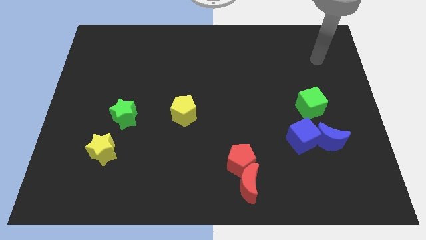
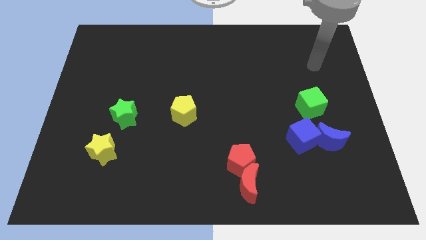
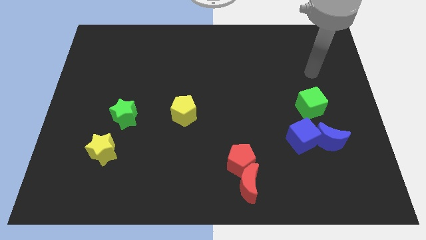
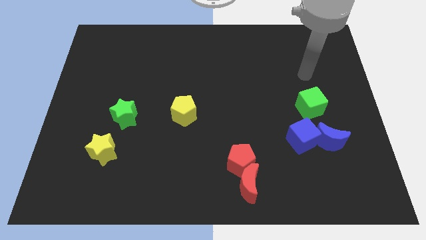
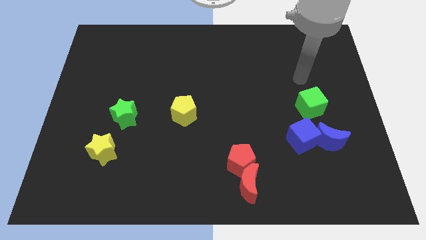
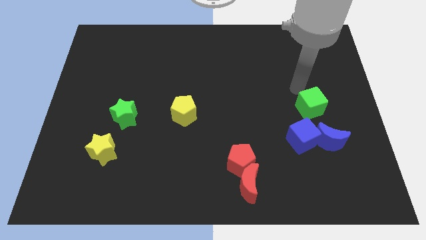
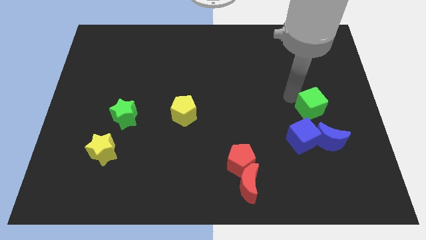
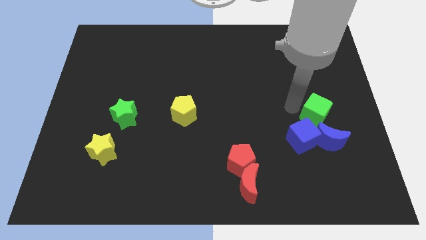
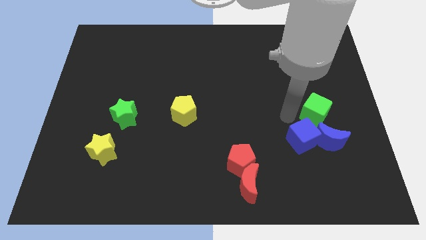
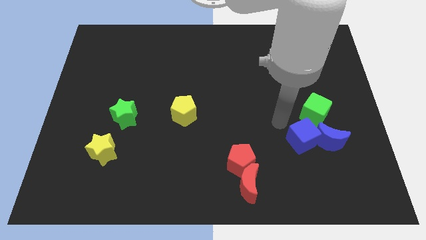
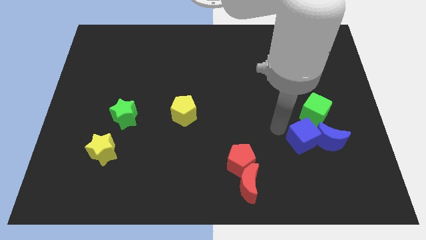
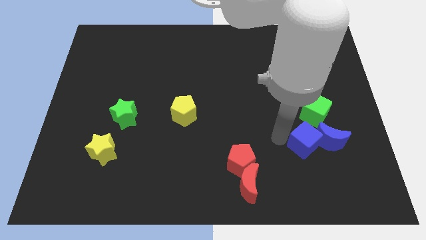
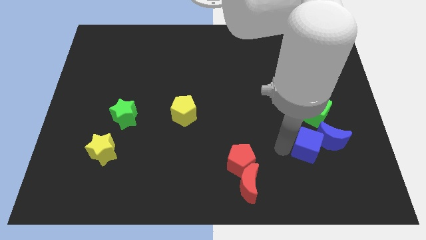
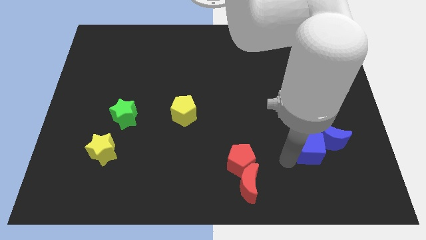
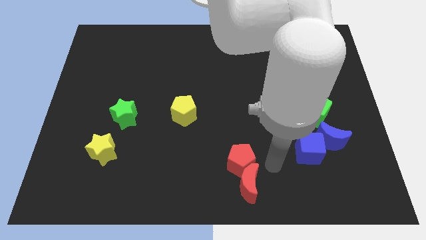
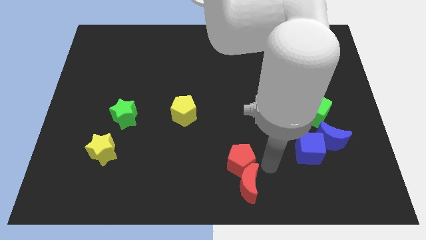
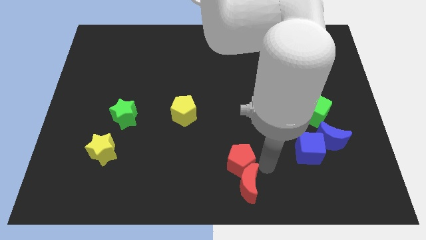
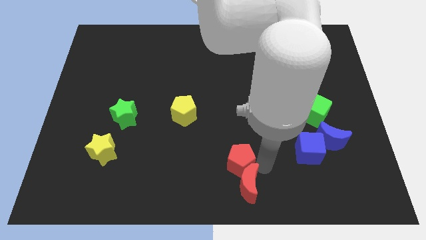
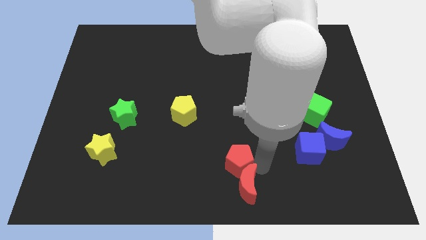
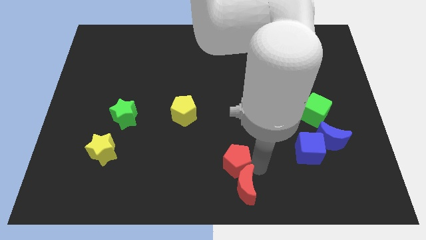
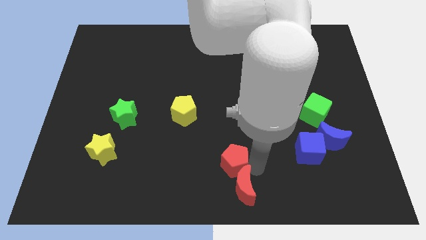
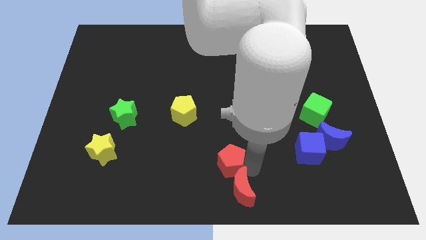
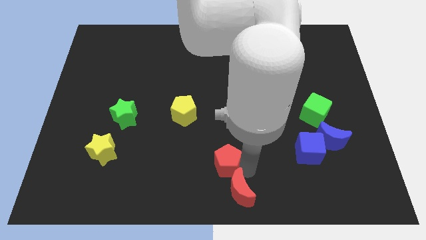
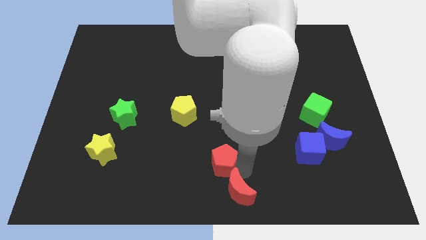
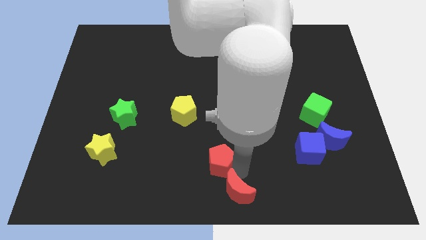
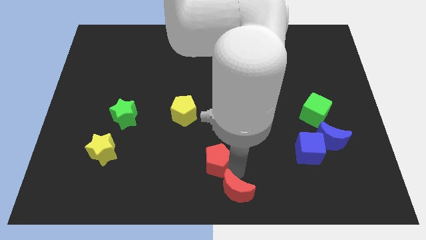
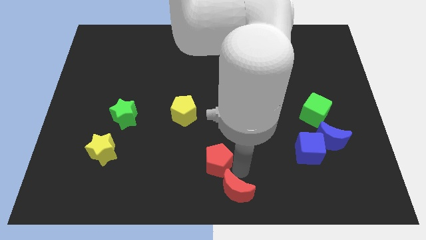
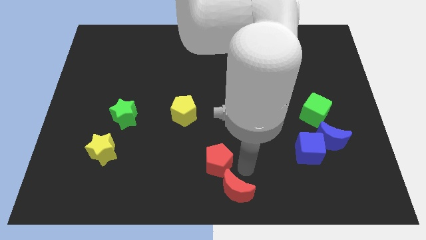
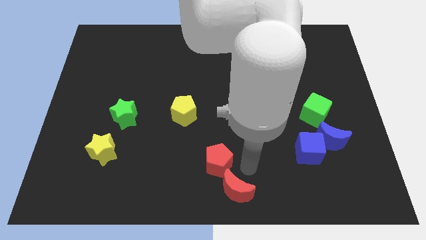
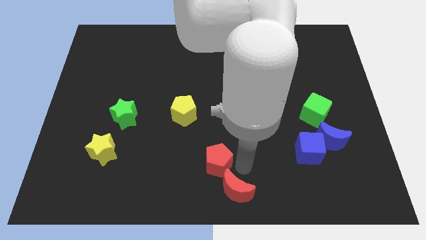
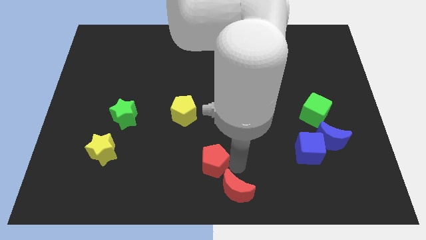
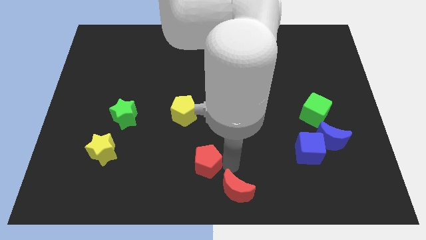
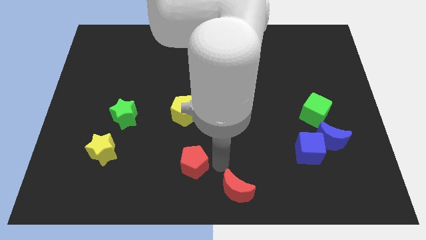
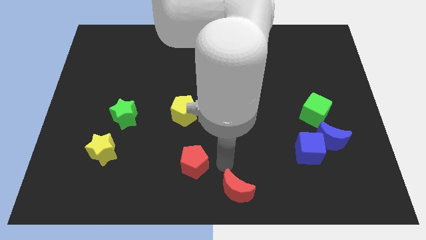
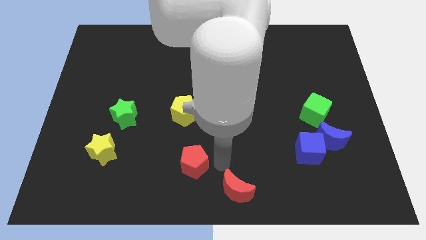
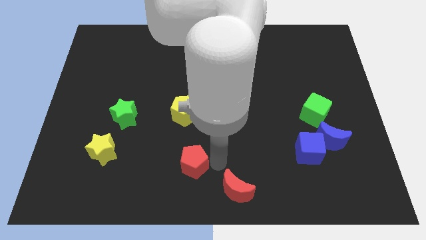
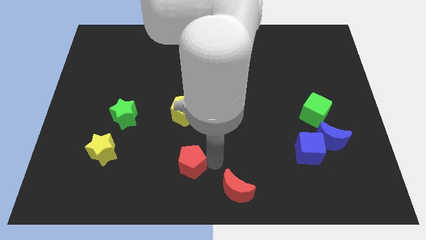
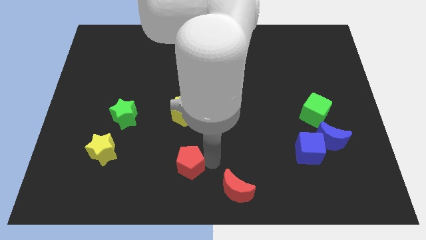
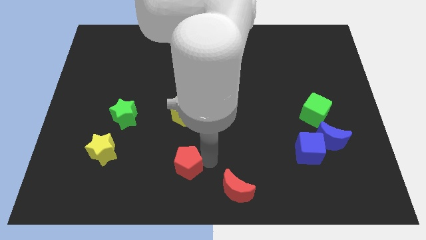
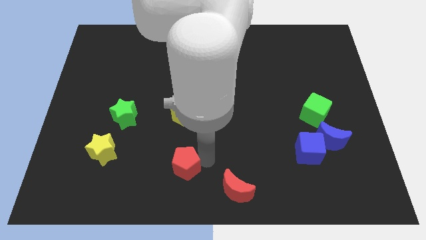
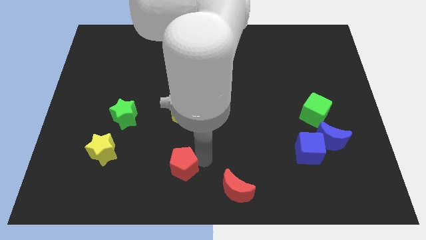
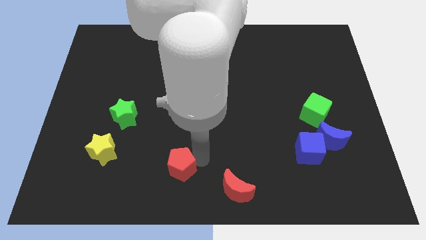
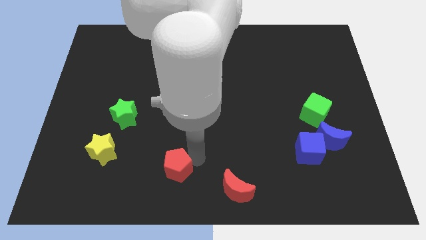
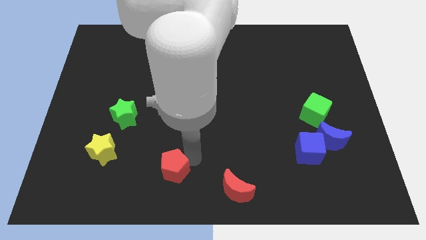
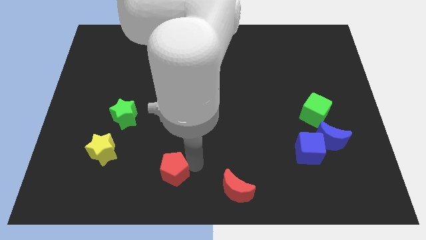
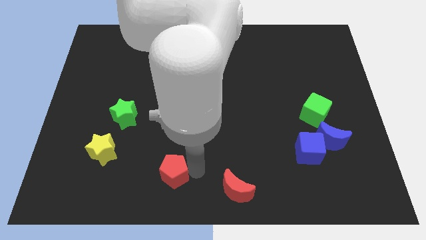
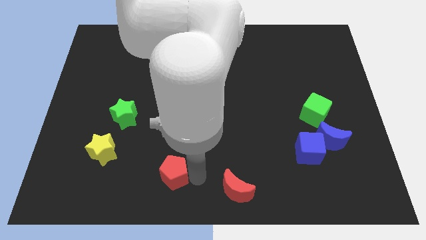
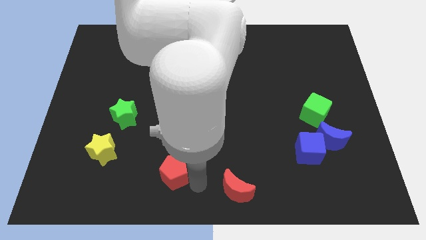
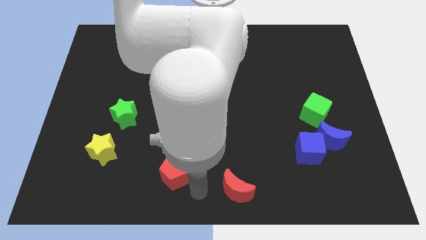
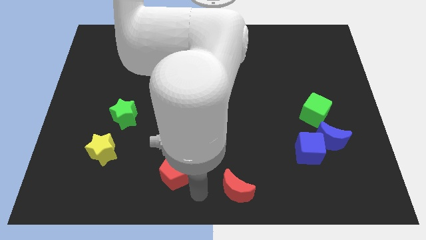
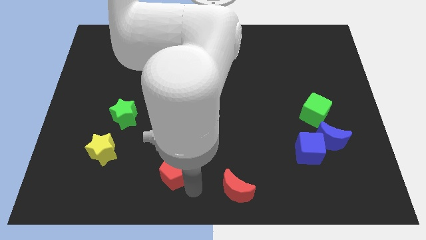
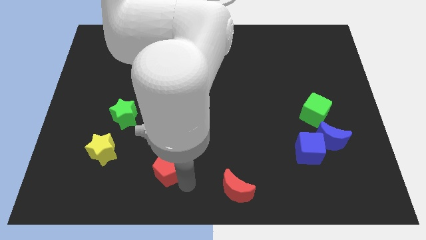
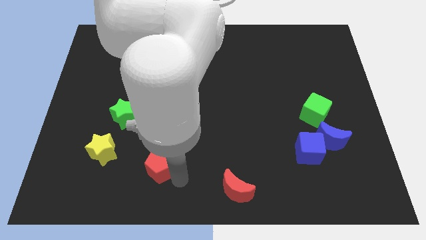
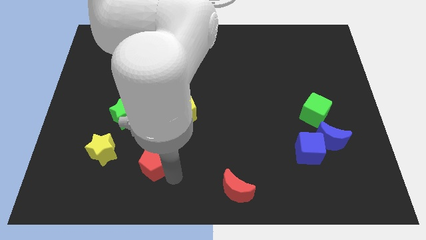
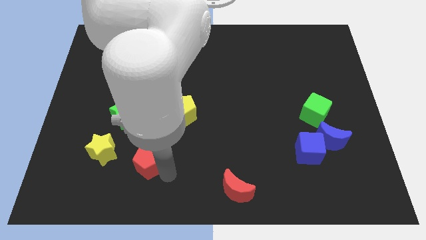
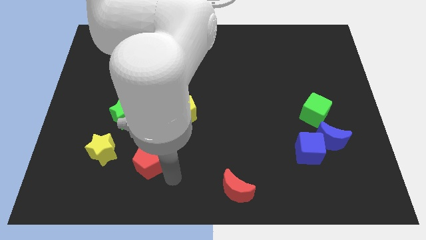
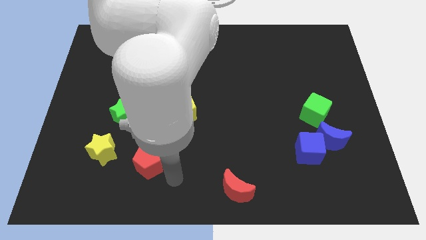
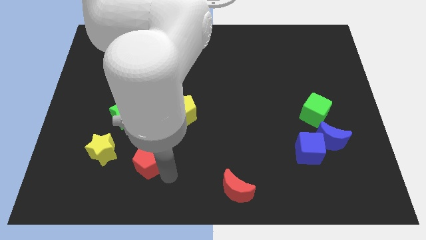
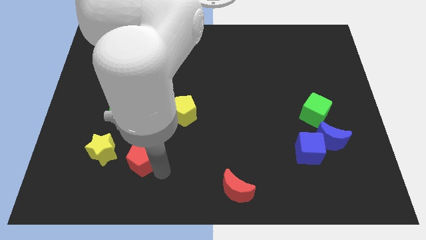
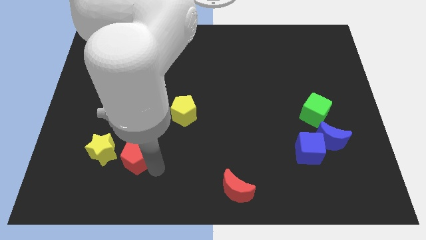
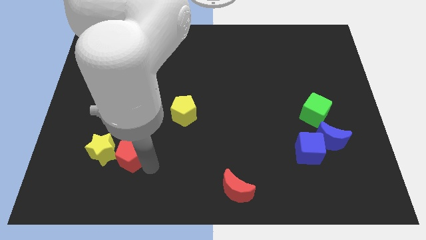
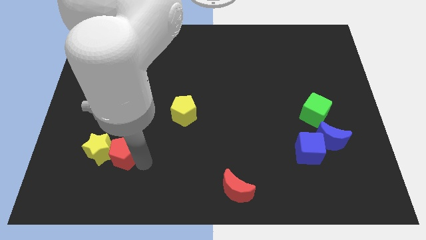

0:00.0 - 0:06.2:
move the red pentagon to the yellow star

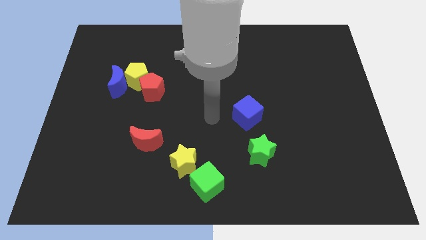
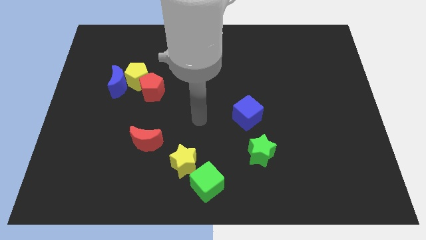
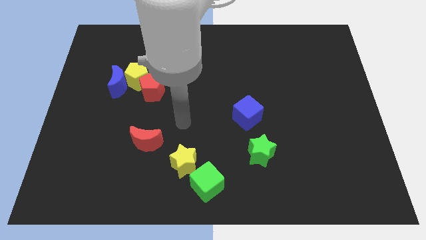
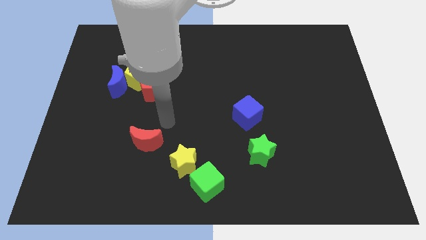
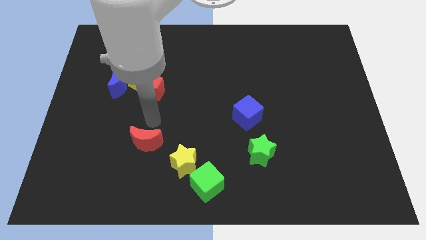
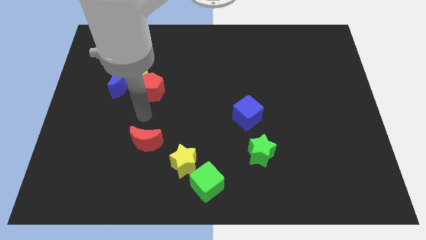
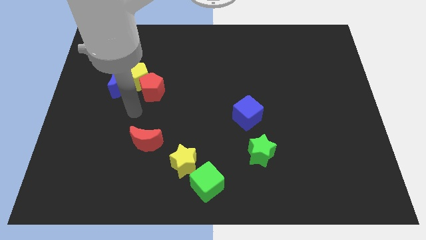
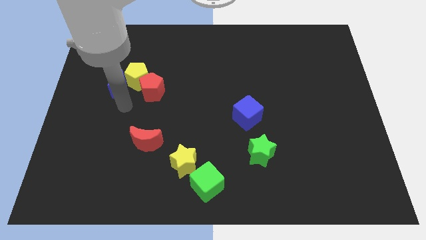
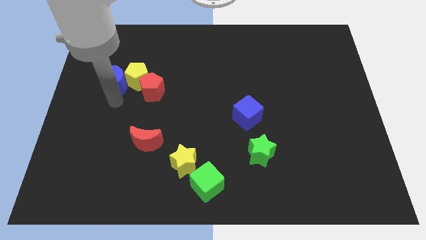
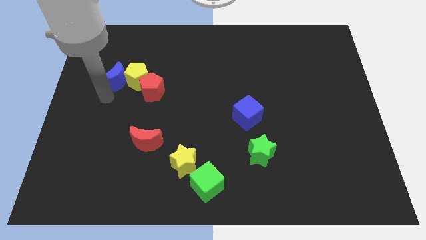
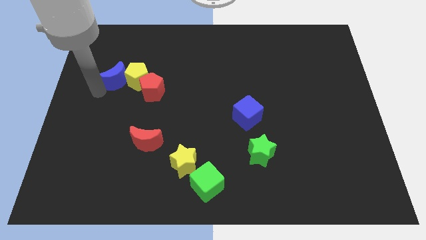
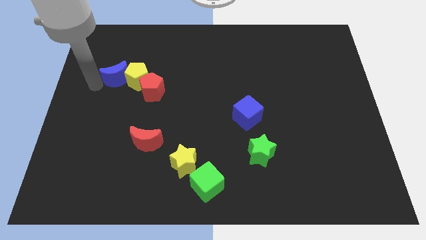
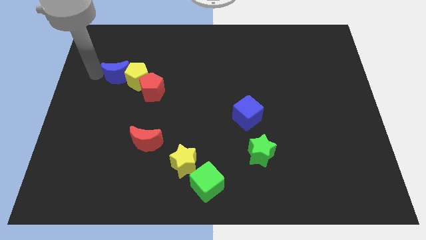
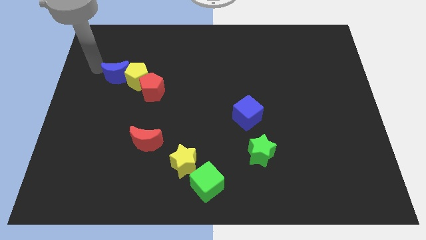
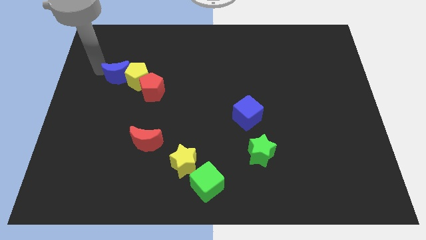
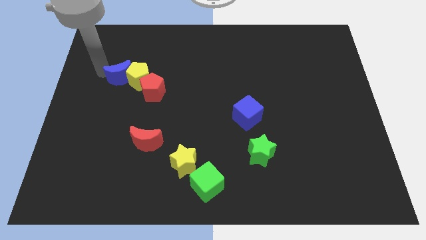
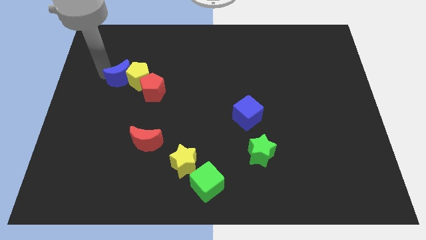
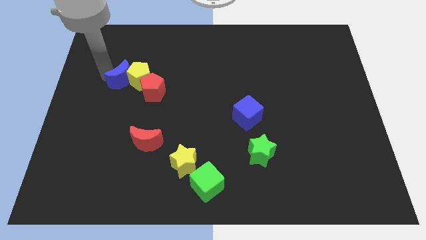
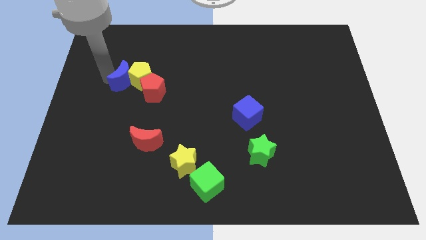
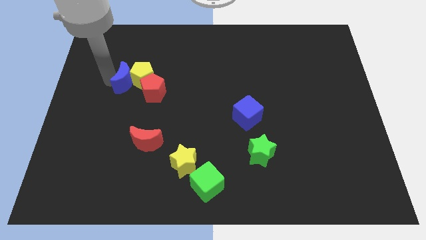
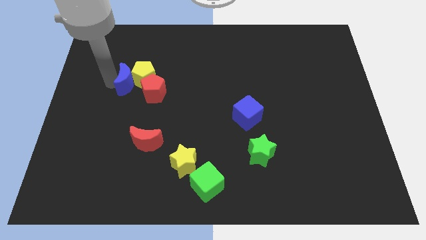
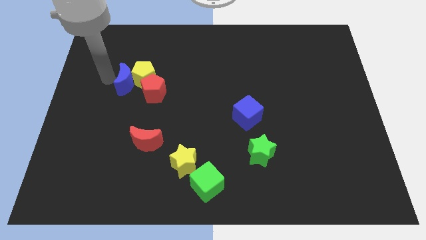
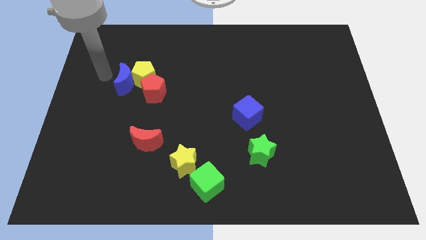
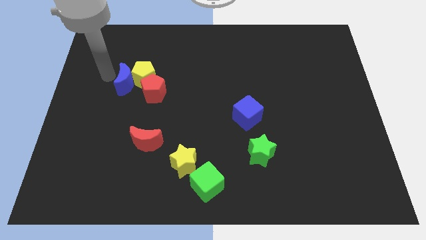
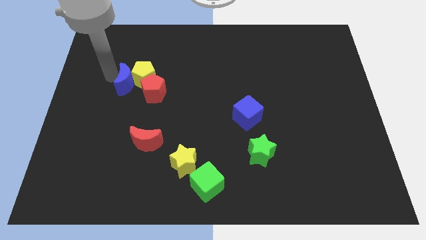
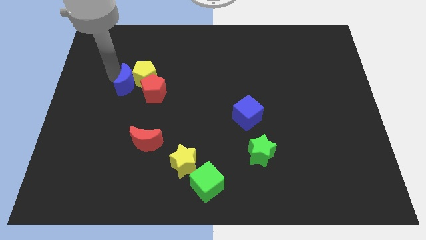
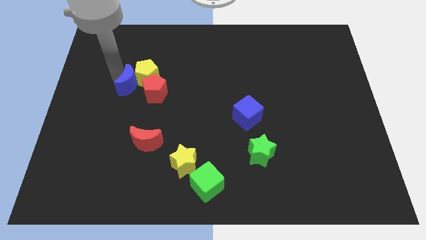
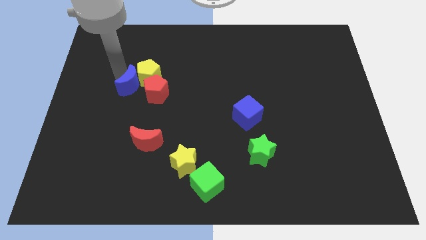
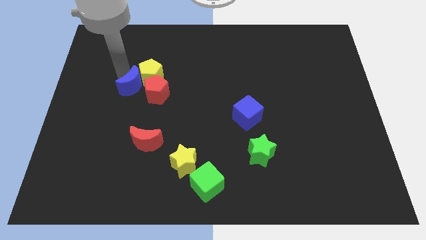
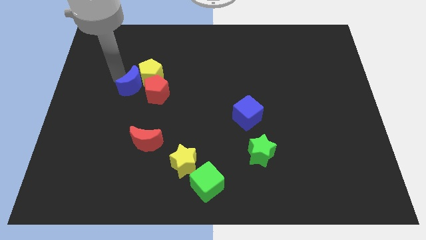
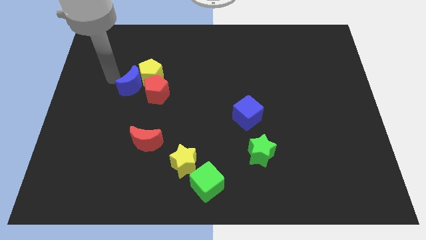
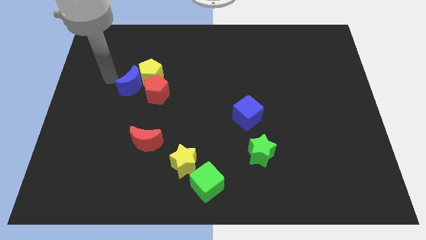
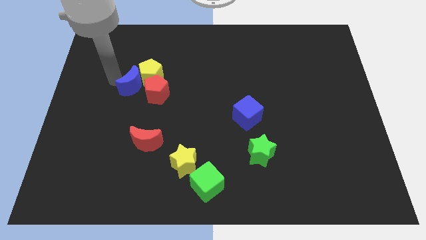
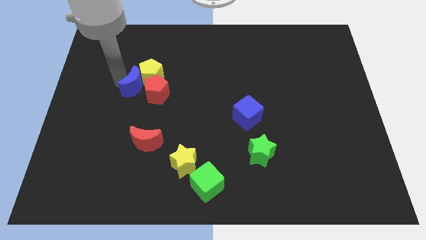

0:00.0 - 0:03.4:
put the blue moon next to the red pentagon
